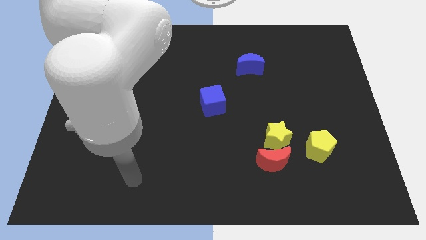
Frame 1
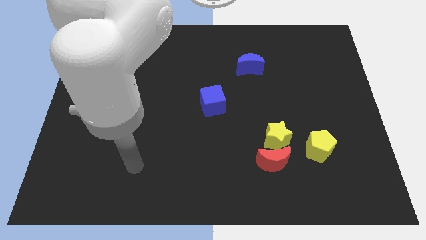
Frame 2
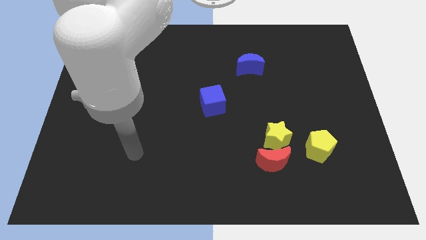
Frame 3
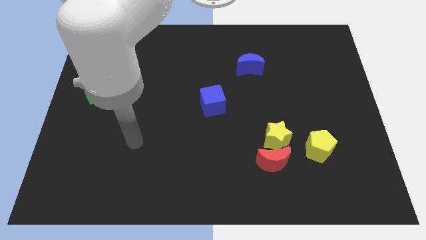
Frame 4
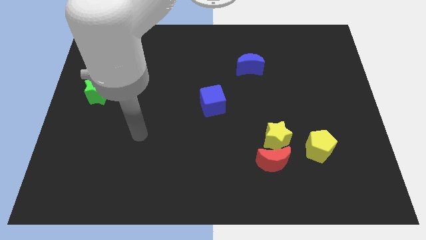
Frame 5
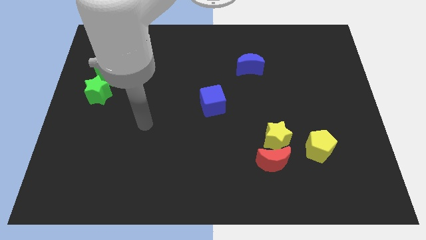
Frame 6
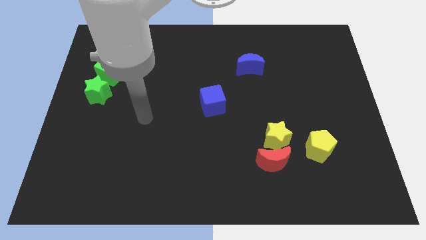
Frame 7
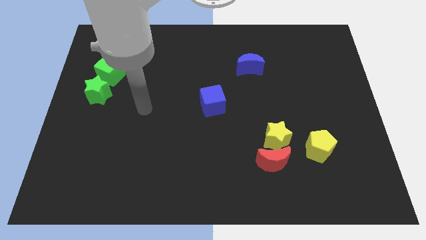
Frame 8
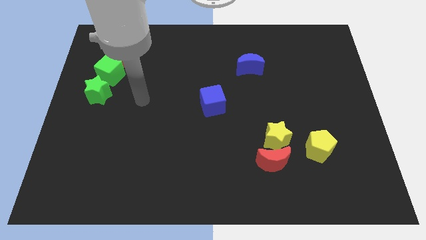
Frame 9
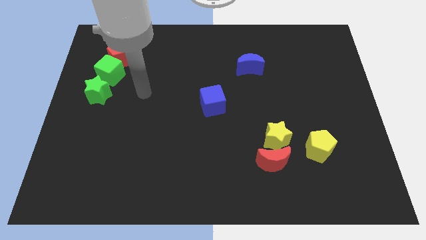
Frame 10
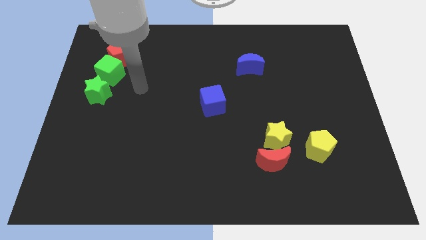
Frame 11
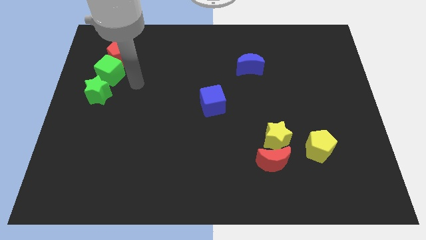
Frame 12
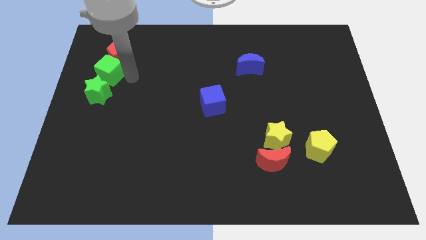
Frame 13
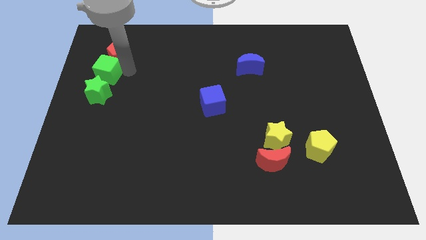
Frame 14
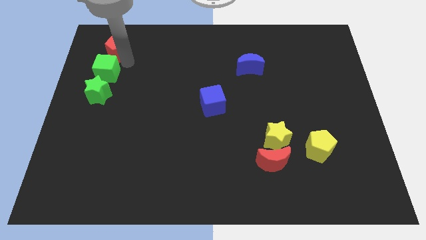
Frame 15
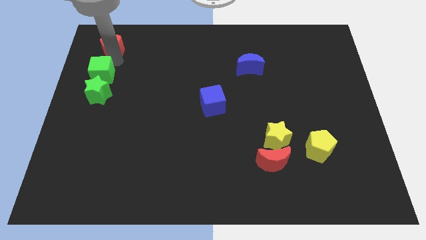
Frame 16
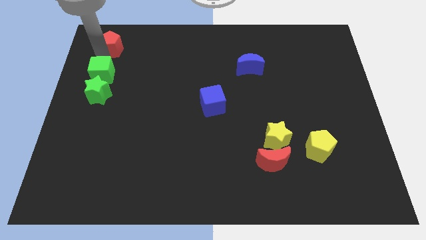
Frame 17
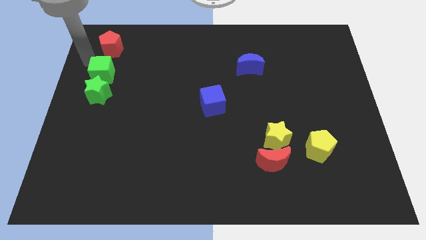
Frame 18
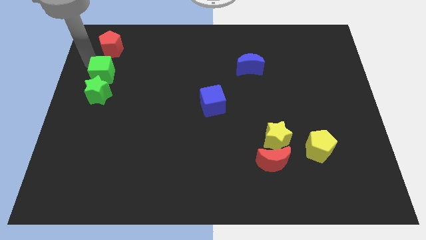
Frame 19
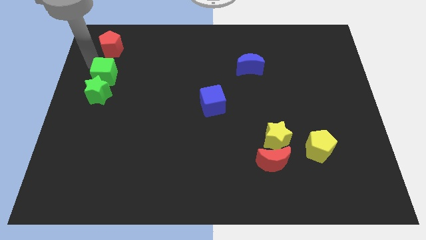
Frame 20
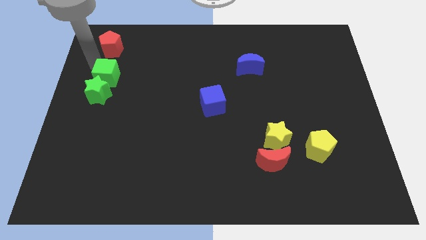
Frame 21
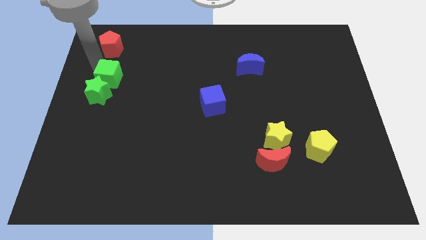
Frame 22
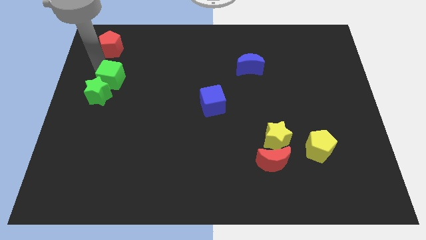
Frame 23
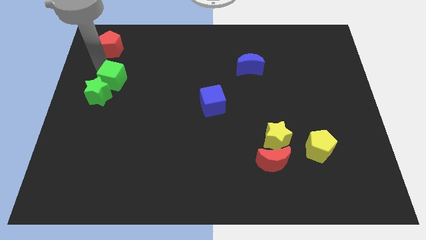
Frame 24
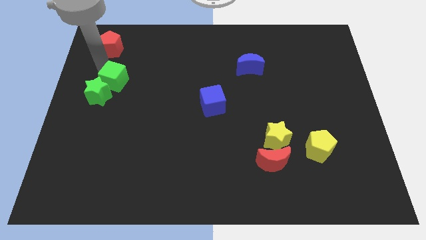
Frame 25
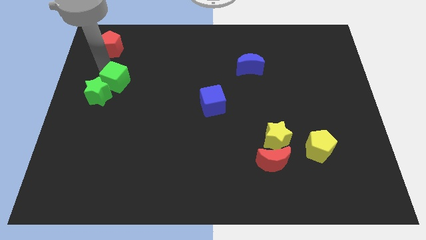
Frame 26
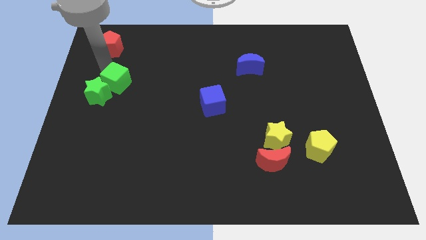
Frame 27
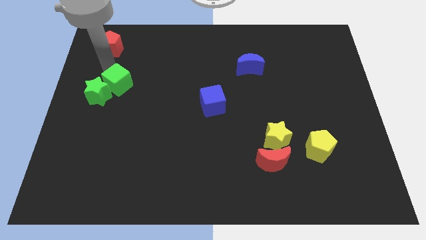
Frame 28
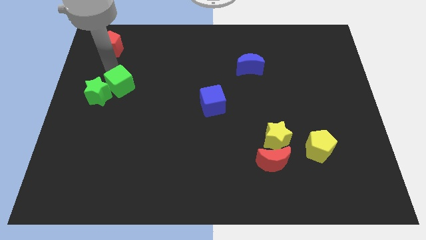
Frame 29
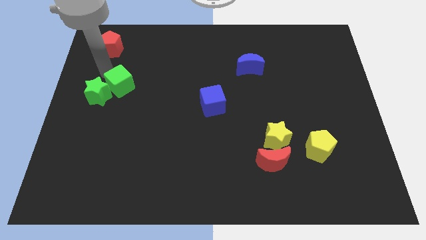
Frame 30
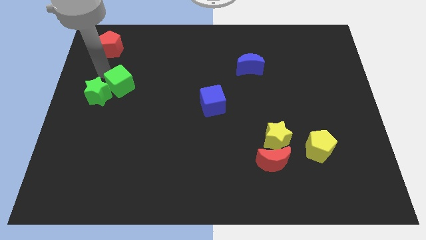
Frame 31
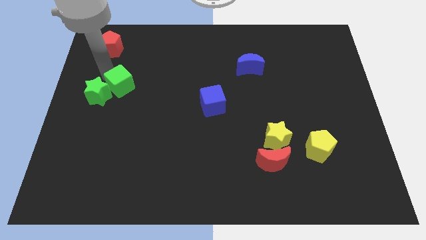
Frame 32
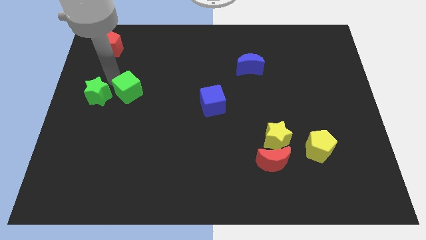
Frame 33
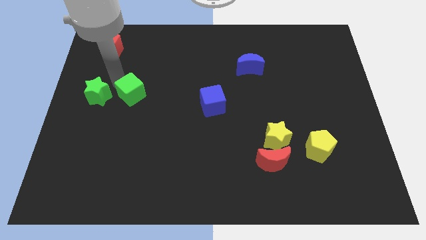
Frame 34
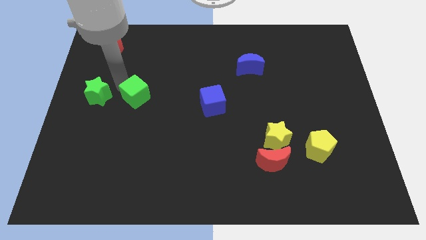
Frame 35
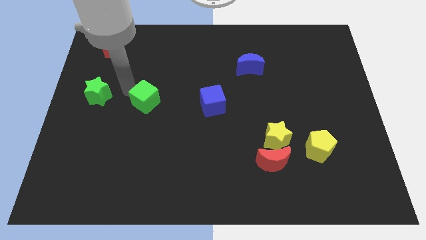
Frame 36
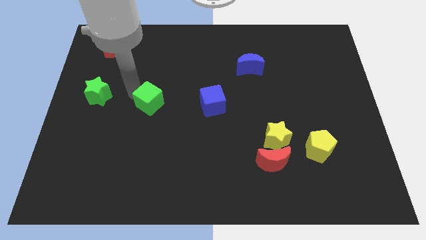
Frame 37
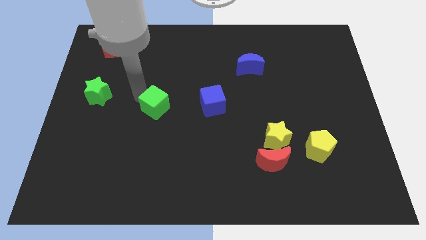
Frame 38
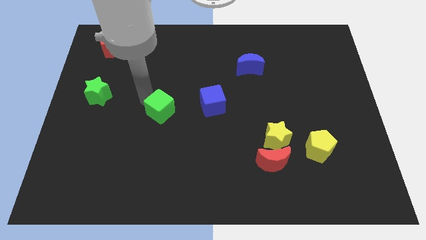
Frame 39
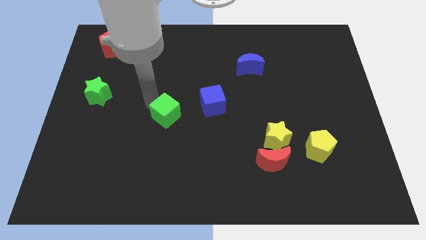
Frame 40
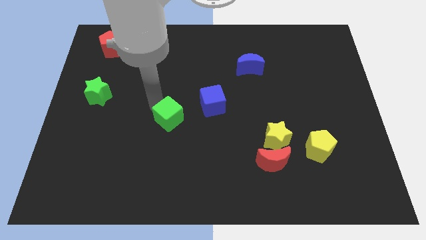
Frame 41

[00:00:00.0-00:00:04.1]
move the green cube downwards and right

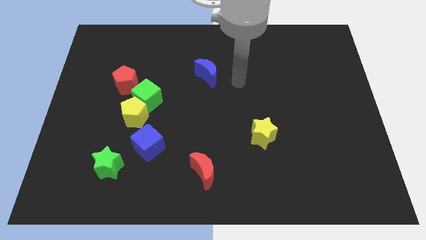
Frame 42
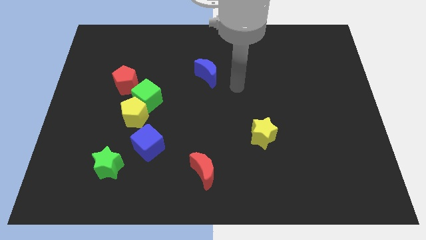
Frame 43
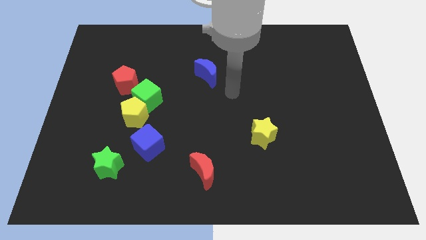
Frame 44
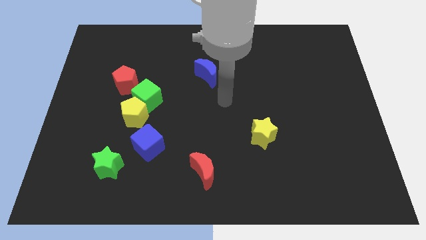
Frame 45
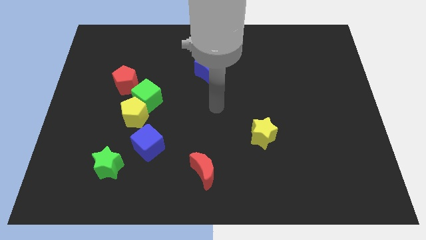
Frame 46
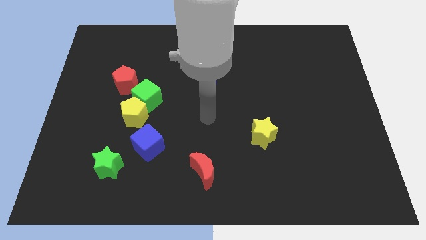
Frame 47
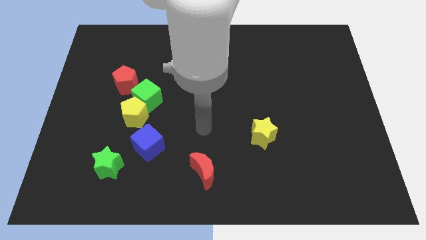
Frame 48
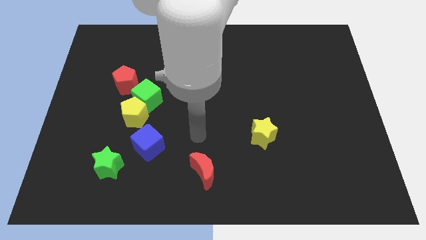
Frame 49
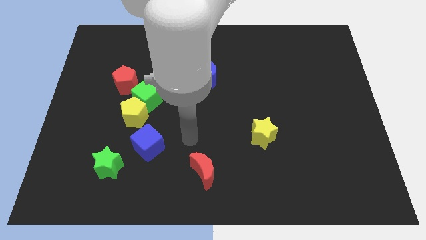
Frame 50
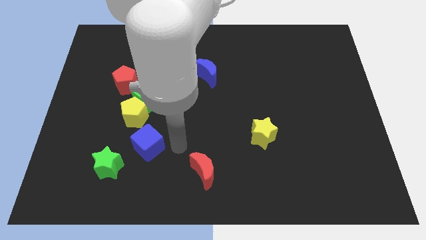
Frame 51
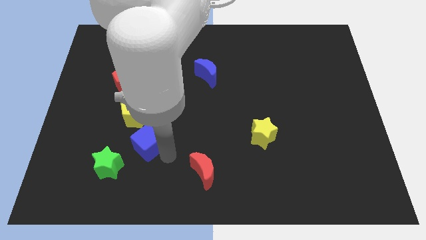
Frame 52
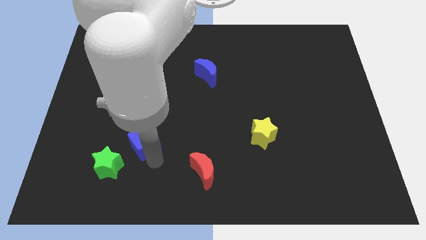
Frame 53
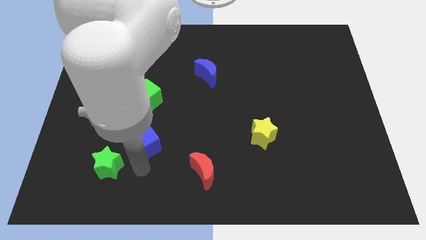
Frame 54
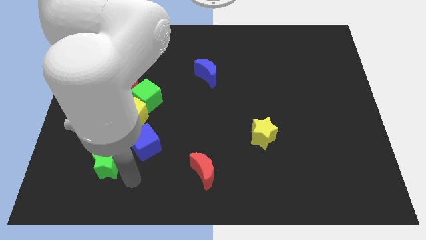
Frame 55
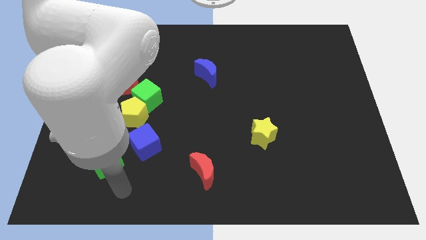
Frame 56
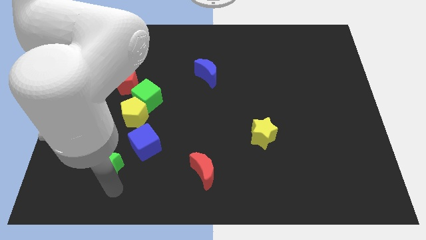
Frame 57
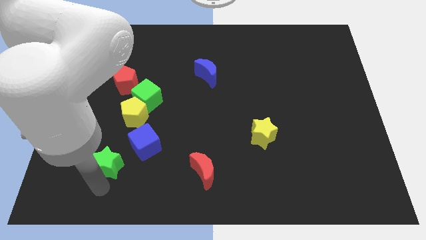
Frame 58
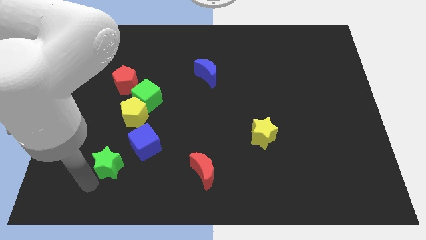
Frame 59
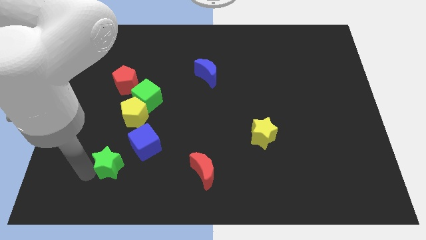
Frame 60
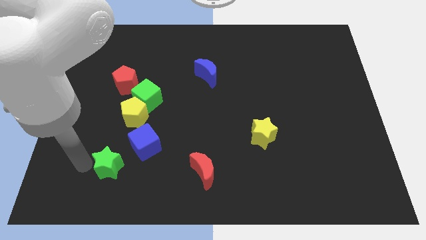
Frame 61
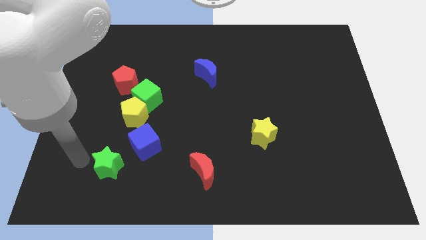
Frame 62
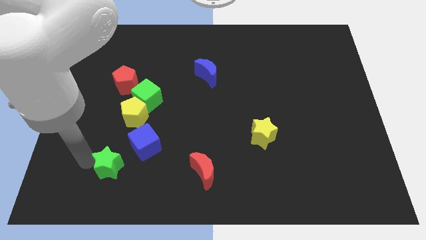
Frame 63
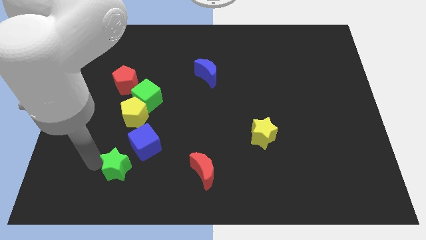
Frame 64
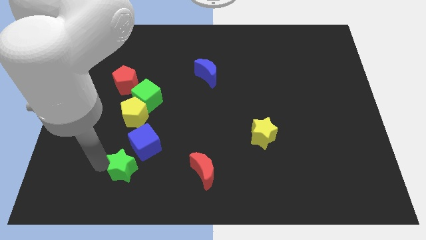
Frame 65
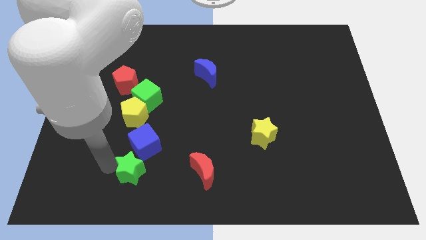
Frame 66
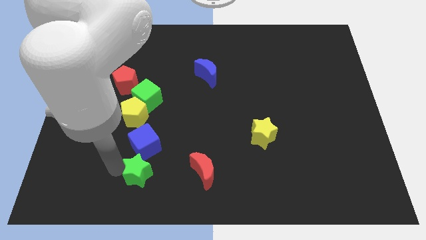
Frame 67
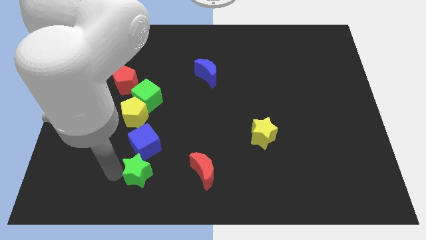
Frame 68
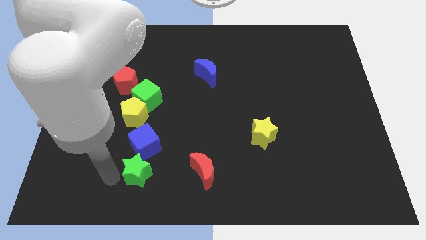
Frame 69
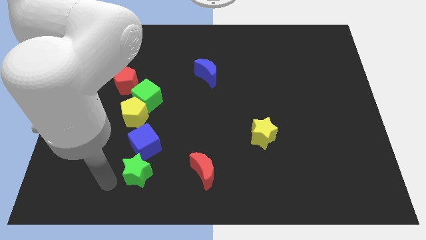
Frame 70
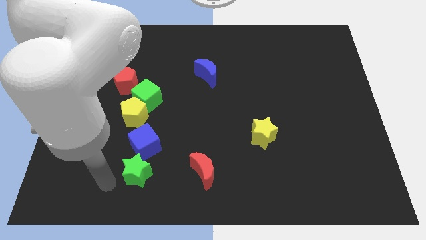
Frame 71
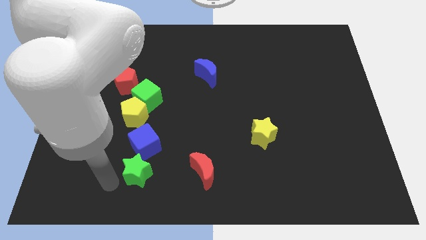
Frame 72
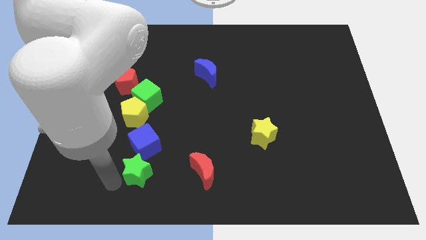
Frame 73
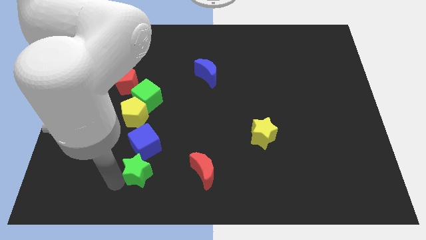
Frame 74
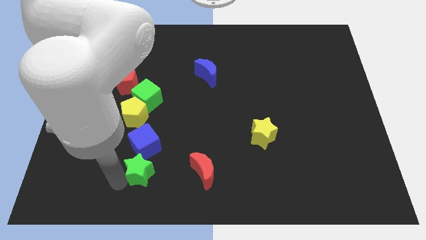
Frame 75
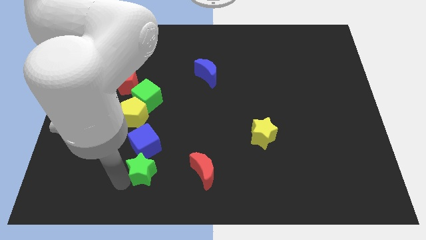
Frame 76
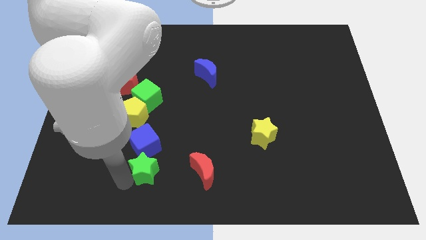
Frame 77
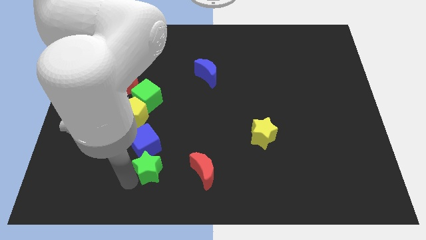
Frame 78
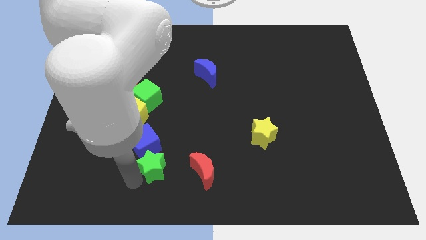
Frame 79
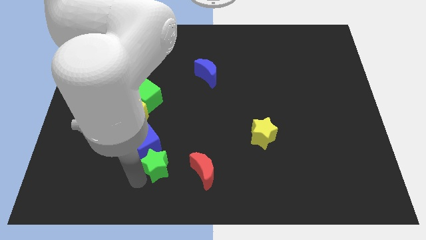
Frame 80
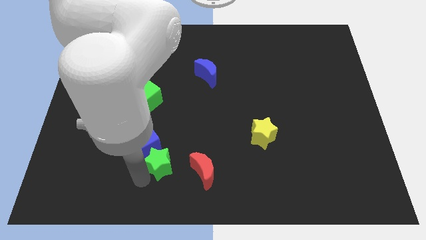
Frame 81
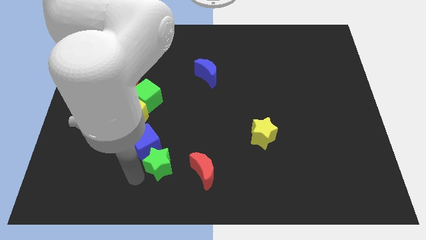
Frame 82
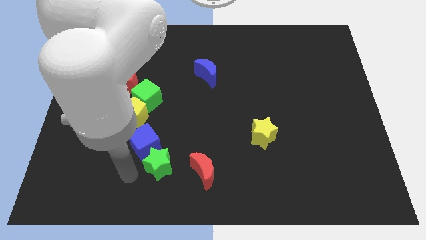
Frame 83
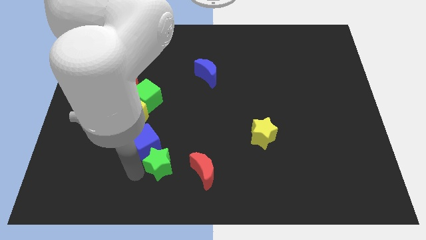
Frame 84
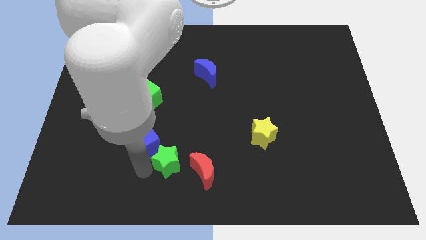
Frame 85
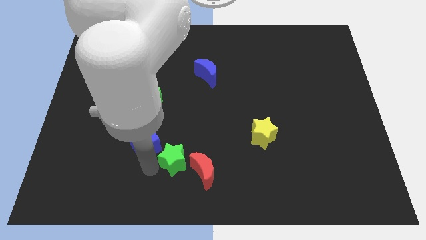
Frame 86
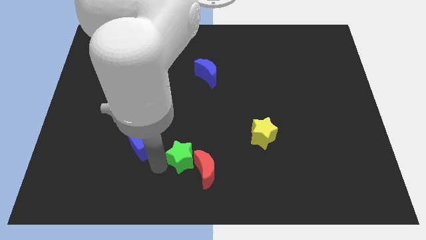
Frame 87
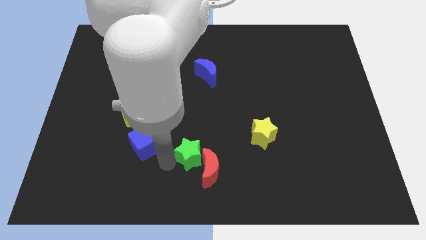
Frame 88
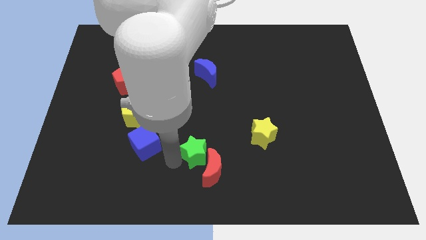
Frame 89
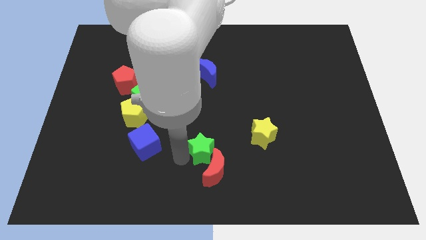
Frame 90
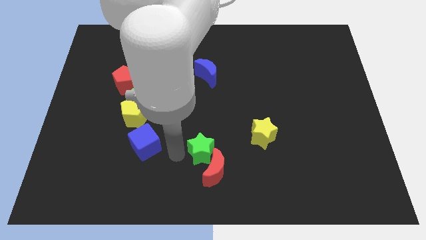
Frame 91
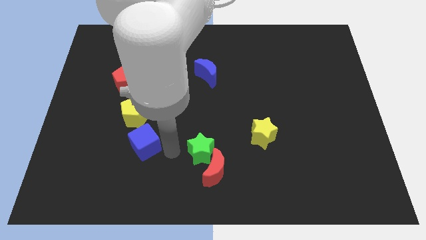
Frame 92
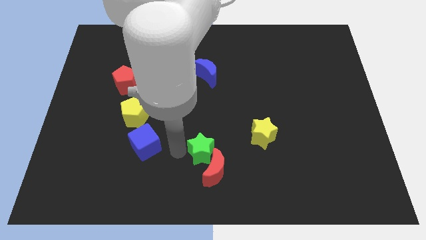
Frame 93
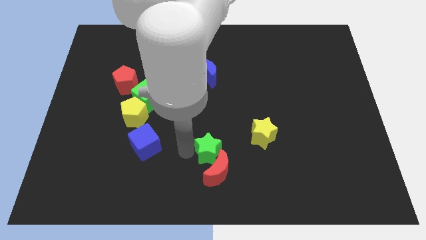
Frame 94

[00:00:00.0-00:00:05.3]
move the green star right
